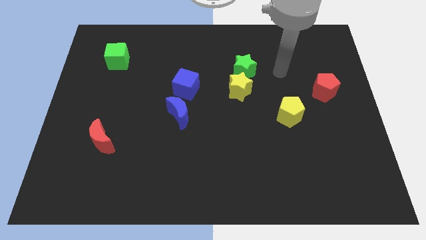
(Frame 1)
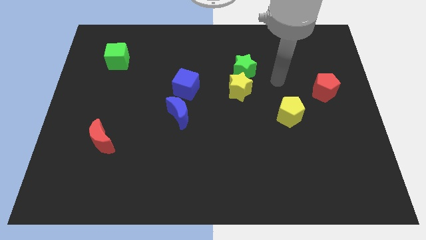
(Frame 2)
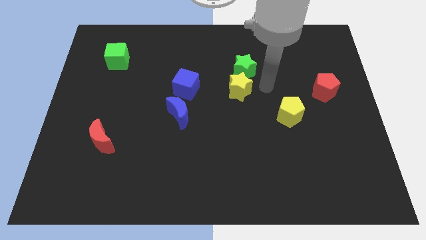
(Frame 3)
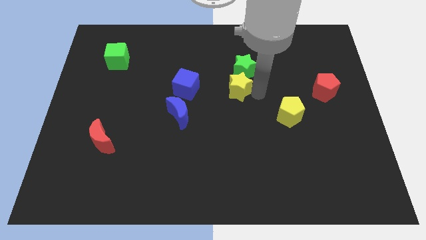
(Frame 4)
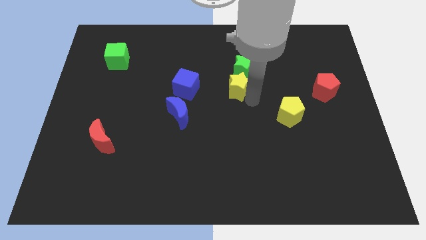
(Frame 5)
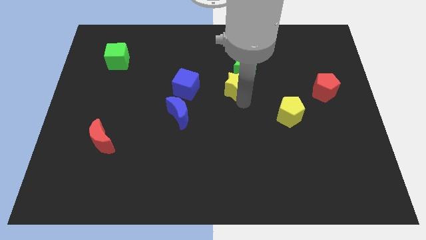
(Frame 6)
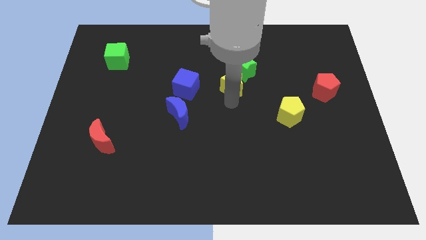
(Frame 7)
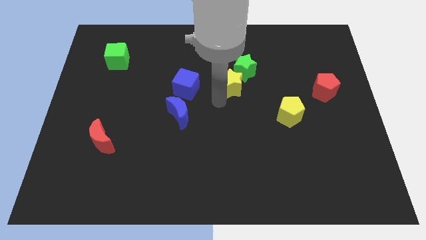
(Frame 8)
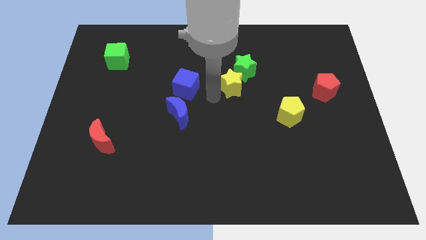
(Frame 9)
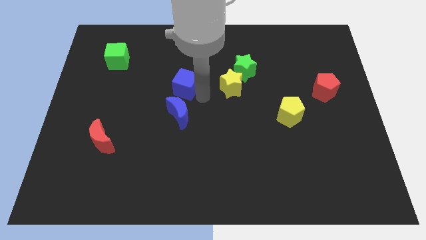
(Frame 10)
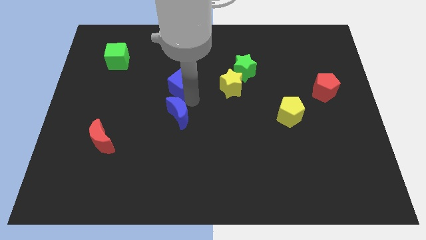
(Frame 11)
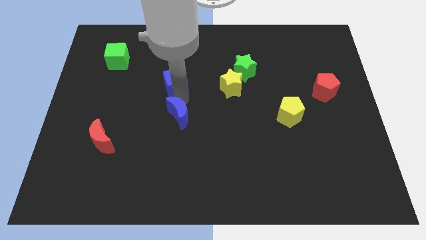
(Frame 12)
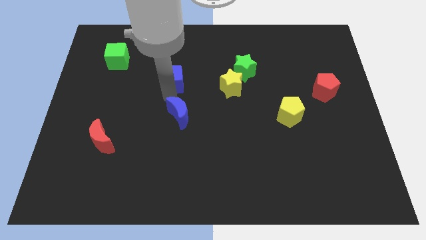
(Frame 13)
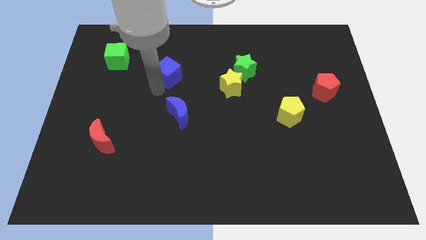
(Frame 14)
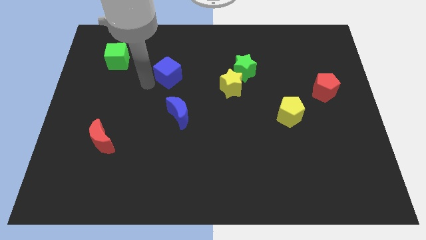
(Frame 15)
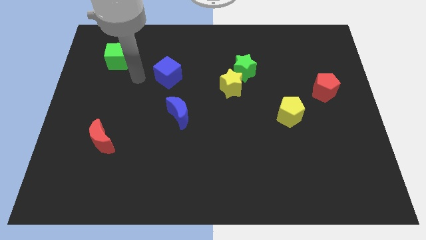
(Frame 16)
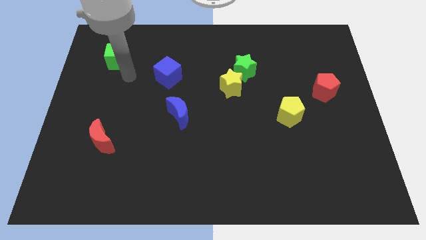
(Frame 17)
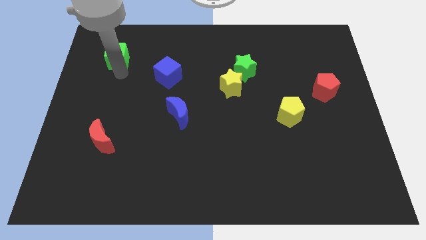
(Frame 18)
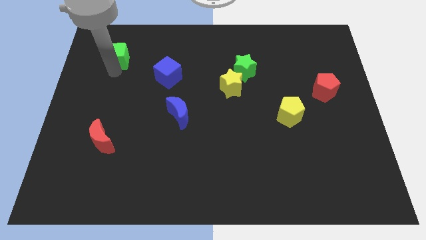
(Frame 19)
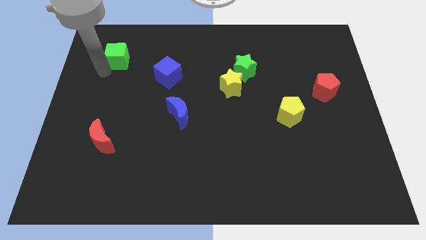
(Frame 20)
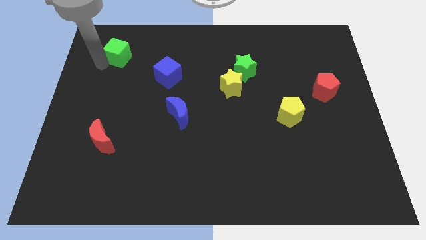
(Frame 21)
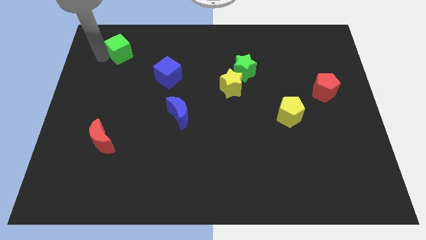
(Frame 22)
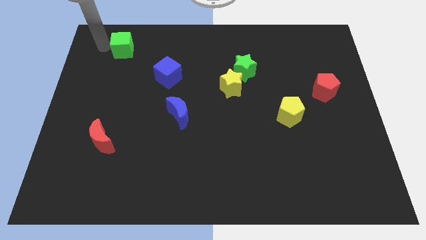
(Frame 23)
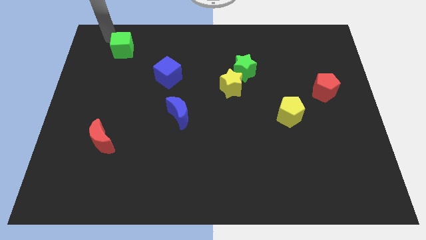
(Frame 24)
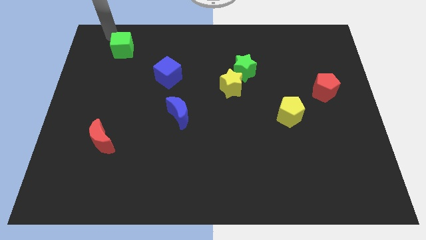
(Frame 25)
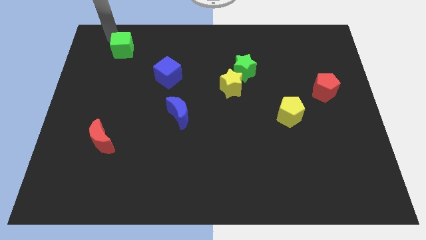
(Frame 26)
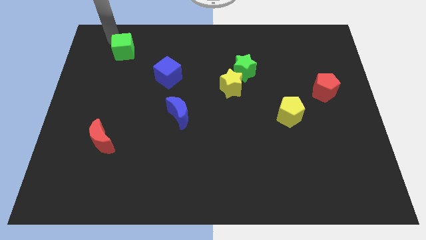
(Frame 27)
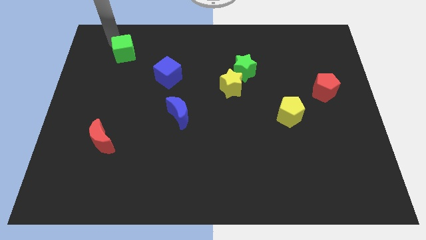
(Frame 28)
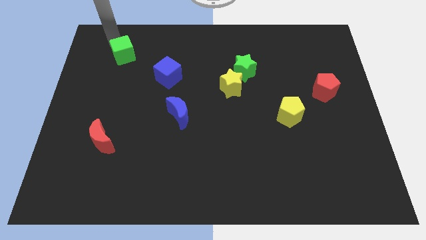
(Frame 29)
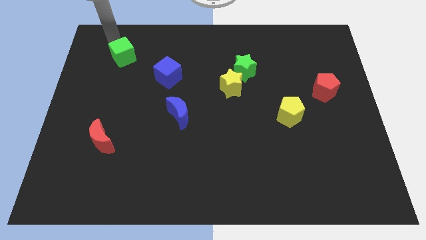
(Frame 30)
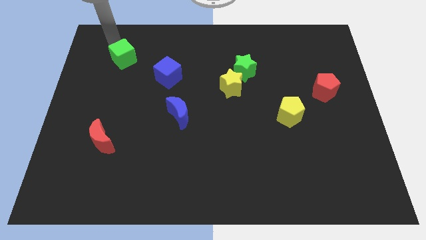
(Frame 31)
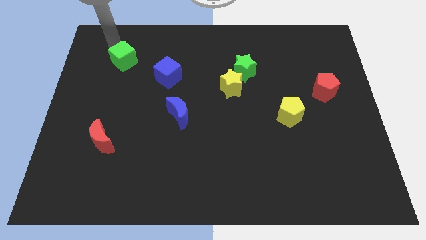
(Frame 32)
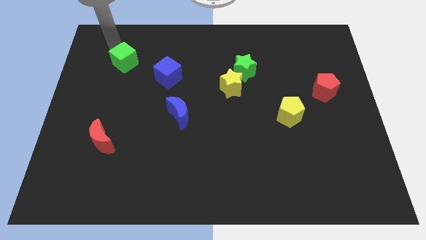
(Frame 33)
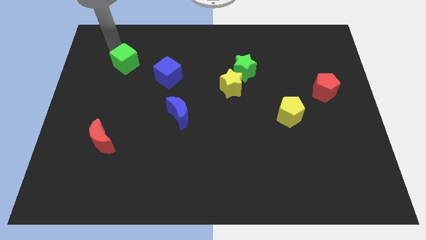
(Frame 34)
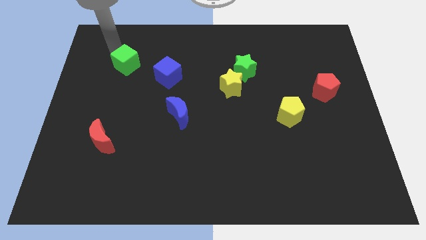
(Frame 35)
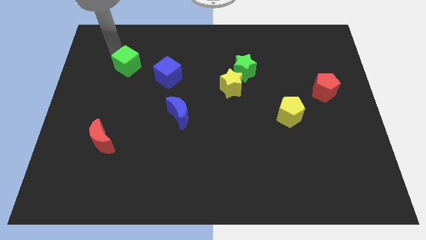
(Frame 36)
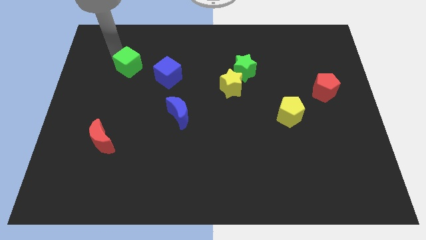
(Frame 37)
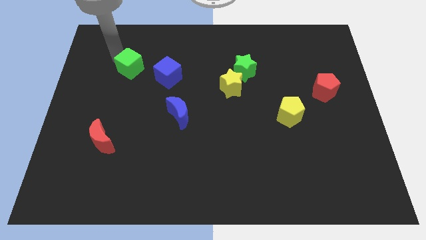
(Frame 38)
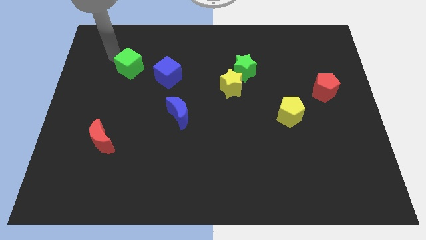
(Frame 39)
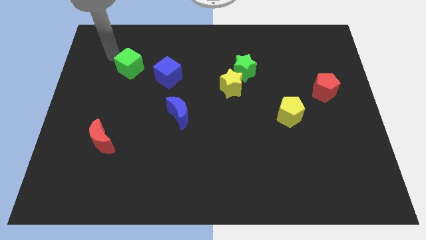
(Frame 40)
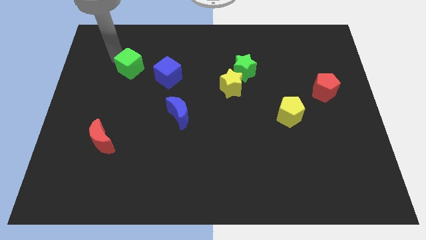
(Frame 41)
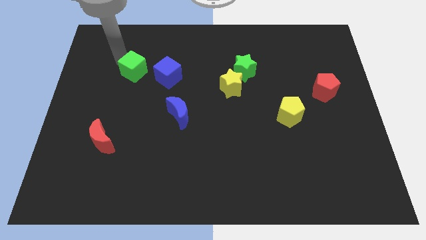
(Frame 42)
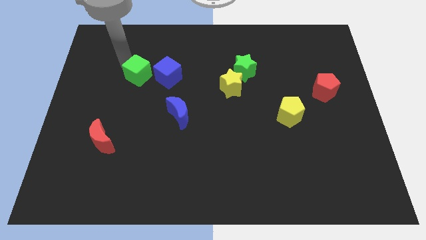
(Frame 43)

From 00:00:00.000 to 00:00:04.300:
slide the green cube a bit diagonally down and to the right

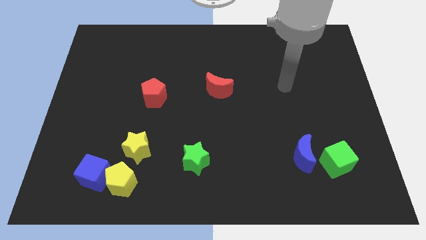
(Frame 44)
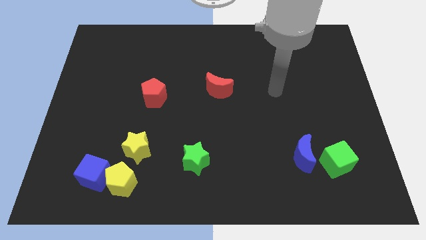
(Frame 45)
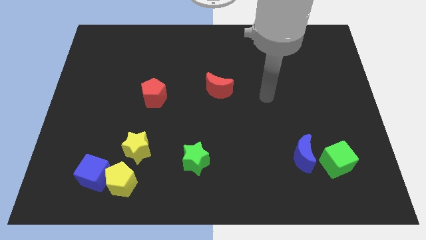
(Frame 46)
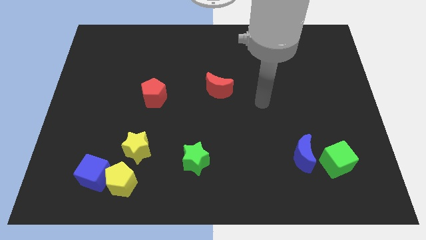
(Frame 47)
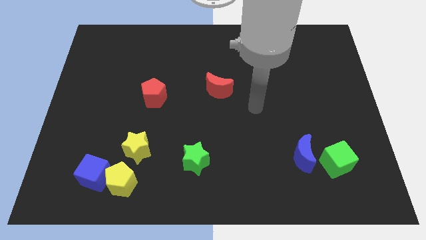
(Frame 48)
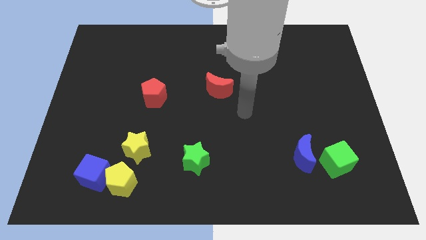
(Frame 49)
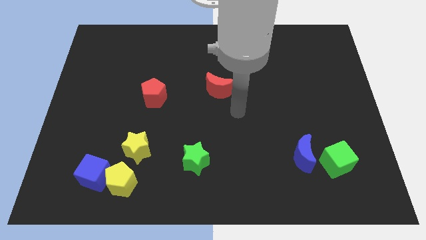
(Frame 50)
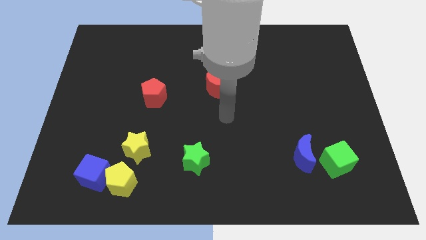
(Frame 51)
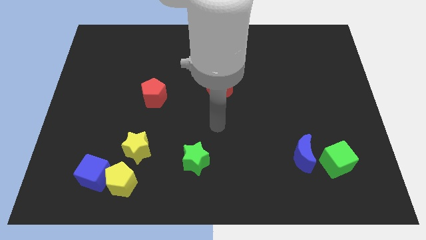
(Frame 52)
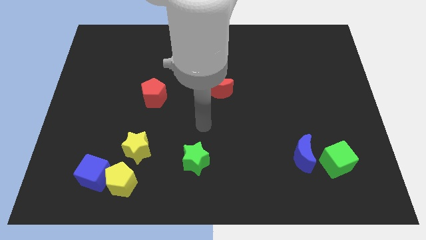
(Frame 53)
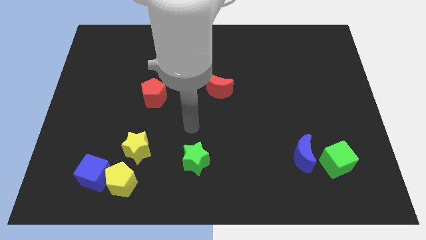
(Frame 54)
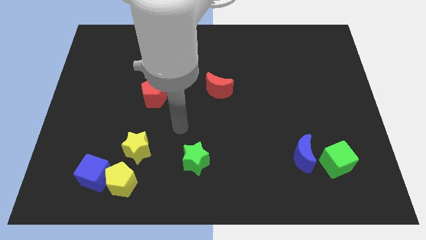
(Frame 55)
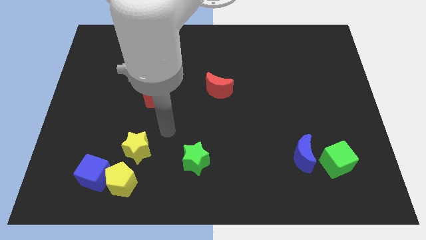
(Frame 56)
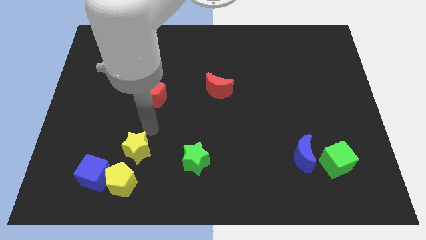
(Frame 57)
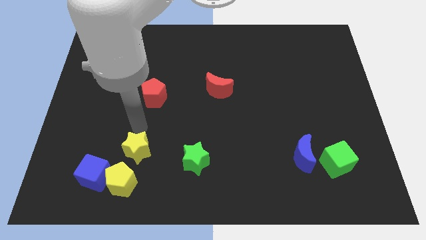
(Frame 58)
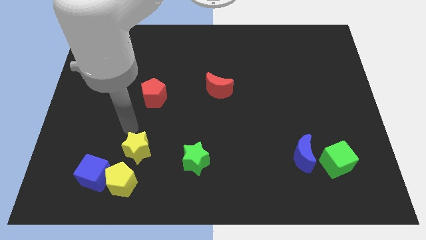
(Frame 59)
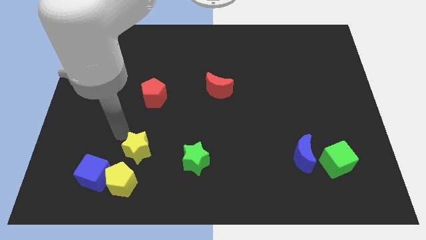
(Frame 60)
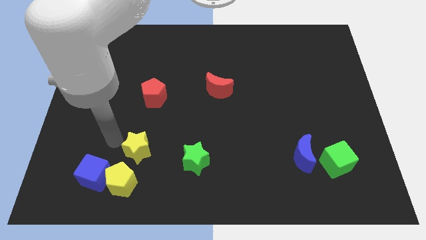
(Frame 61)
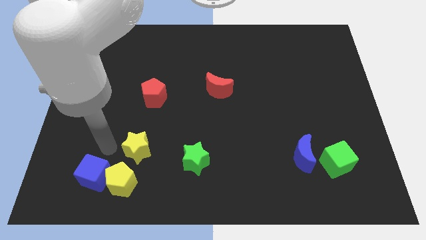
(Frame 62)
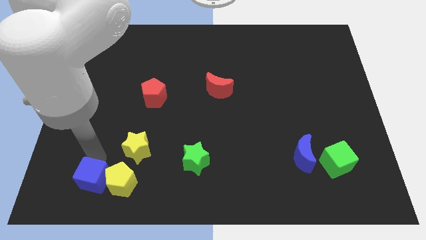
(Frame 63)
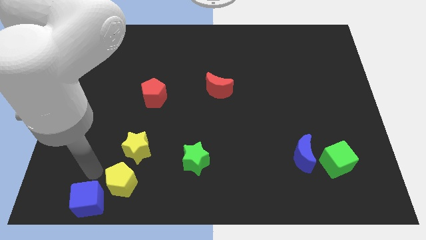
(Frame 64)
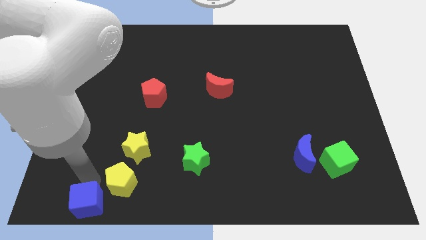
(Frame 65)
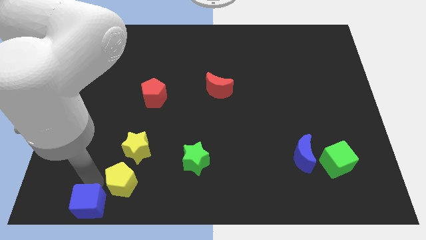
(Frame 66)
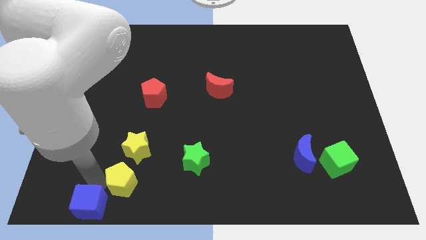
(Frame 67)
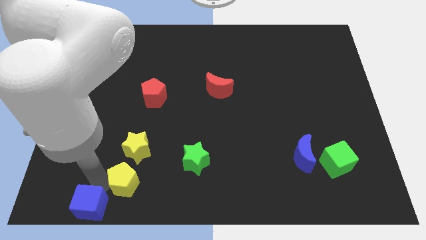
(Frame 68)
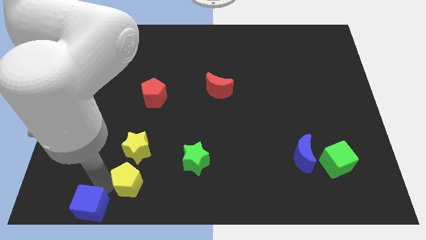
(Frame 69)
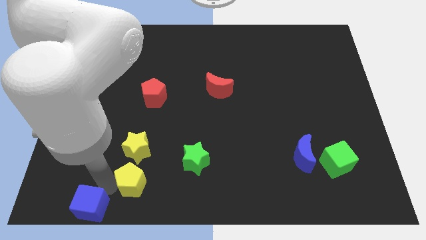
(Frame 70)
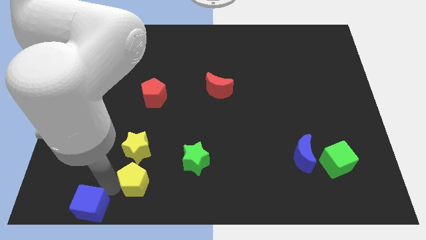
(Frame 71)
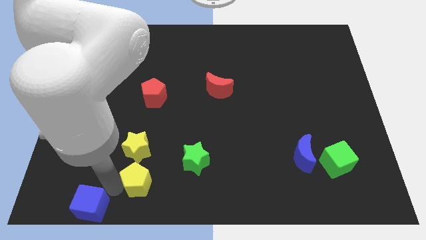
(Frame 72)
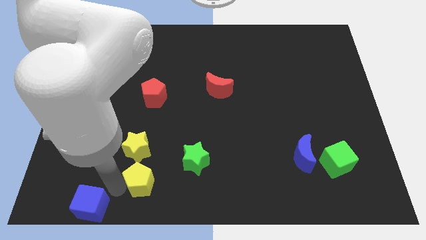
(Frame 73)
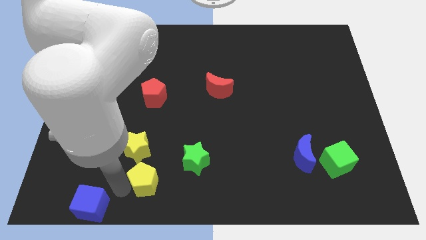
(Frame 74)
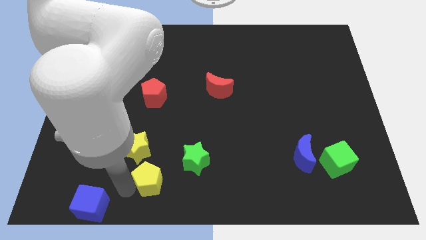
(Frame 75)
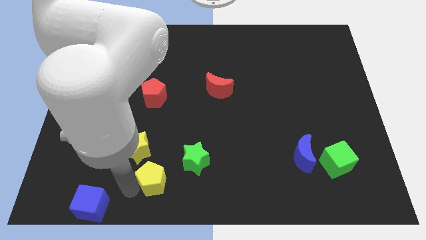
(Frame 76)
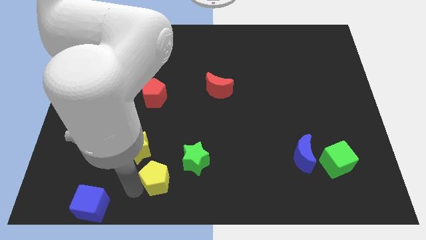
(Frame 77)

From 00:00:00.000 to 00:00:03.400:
move the yellow pentagon to the right slightly
